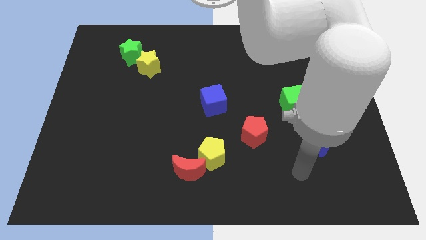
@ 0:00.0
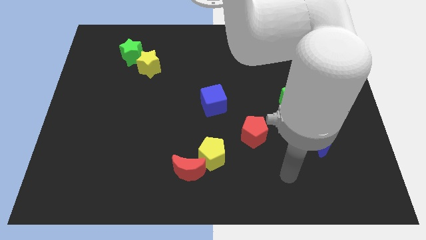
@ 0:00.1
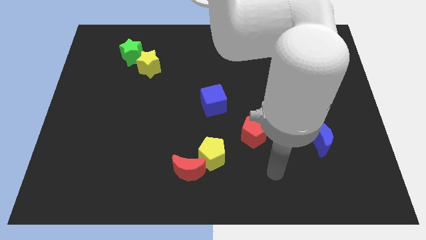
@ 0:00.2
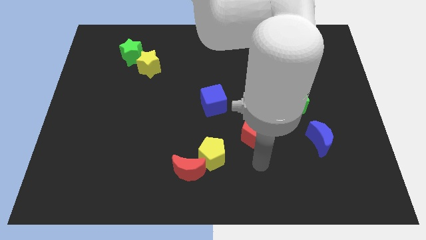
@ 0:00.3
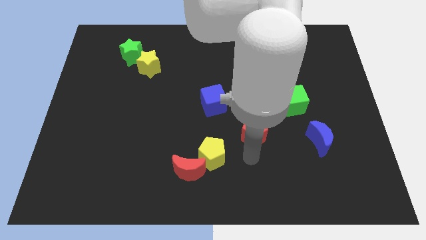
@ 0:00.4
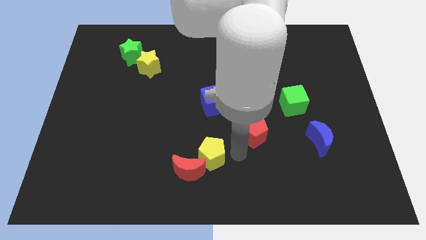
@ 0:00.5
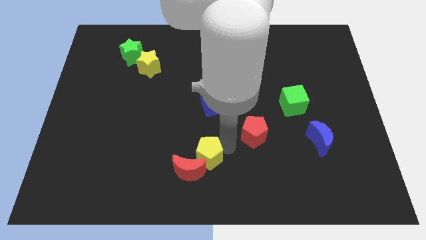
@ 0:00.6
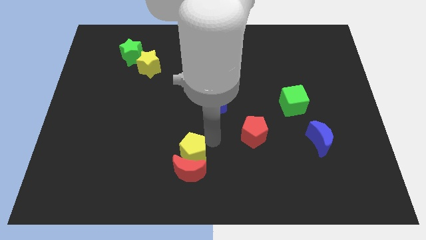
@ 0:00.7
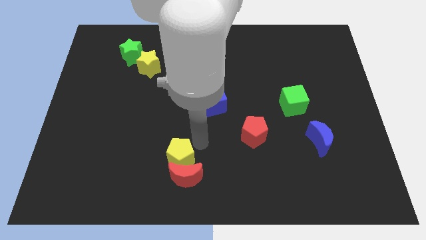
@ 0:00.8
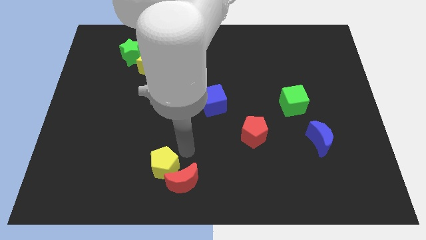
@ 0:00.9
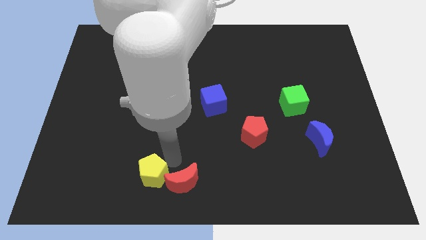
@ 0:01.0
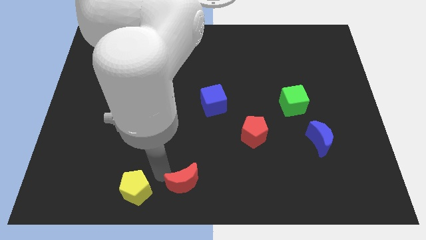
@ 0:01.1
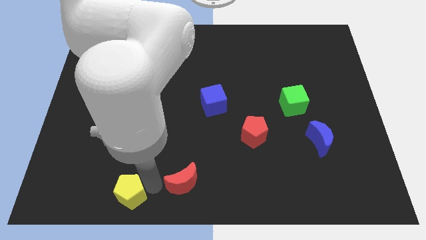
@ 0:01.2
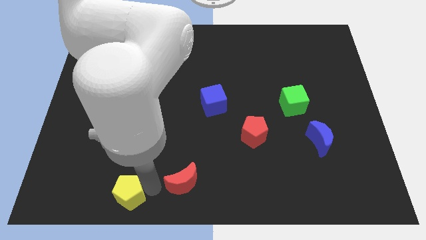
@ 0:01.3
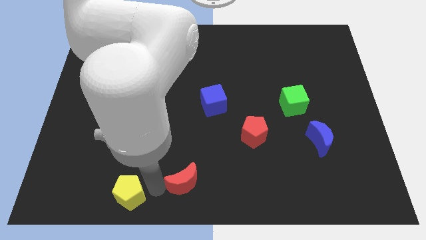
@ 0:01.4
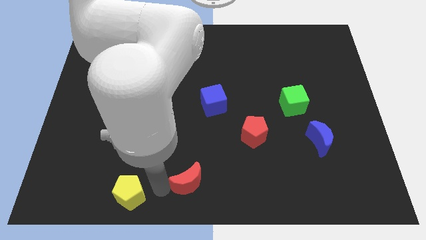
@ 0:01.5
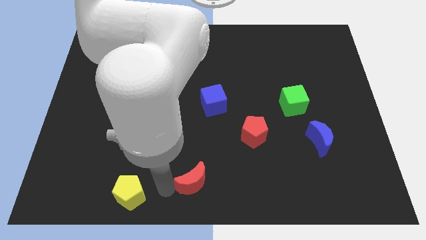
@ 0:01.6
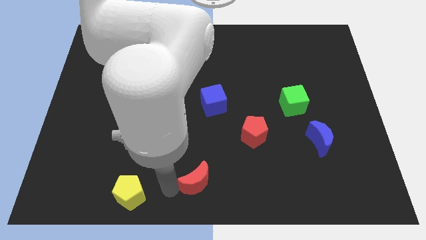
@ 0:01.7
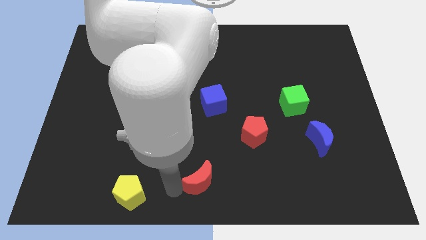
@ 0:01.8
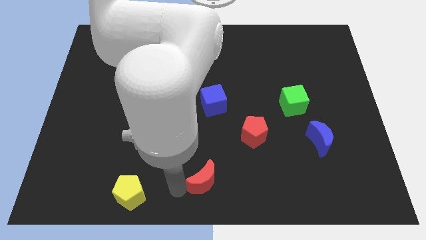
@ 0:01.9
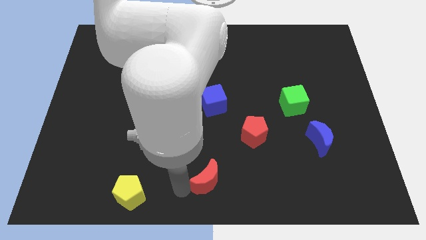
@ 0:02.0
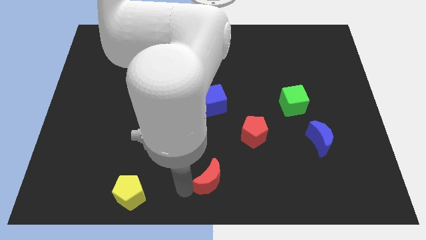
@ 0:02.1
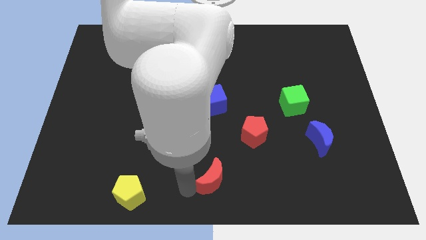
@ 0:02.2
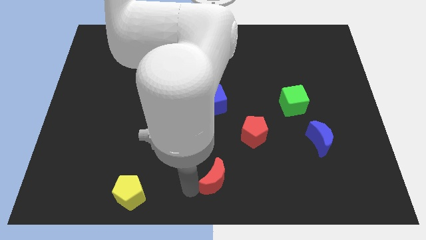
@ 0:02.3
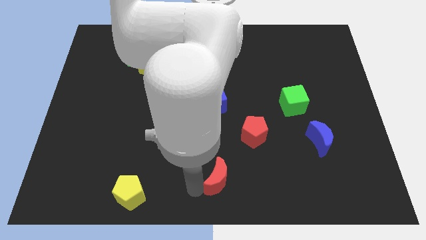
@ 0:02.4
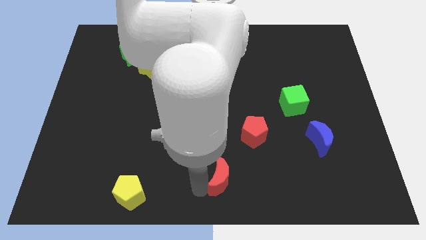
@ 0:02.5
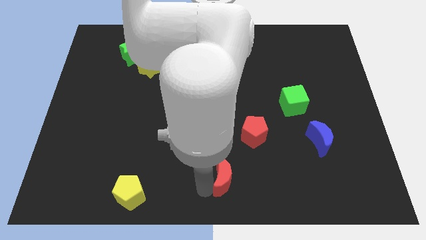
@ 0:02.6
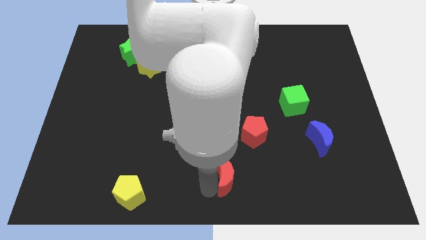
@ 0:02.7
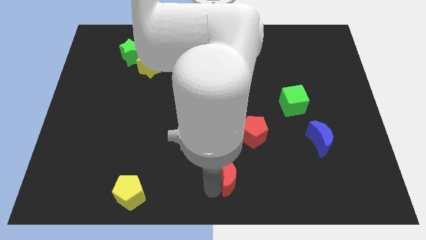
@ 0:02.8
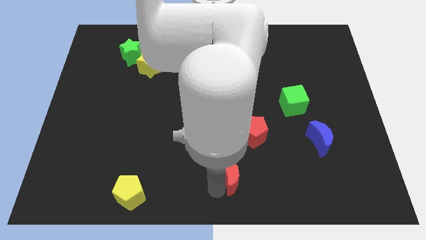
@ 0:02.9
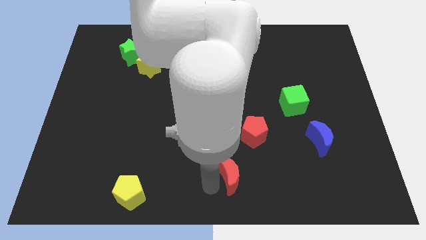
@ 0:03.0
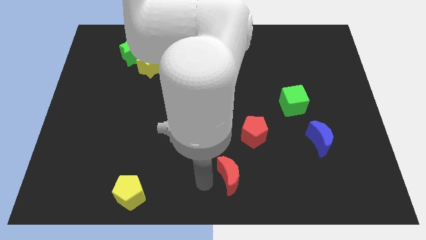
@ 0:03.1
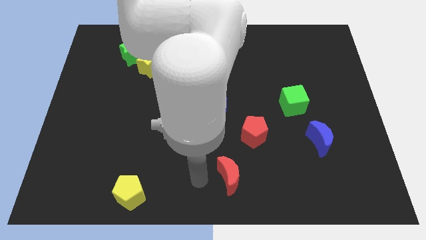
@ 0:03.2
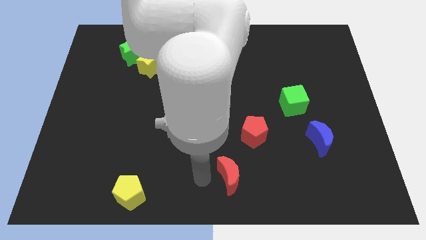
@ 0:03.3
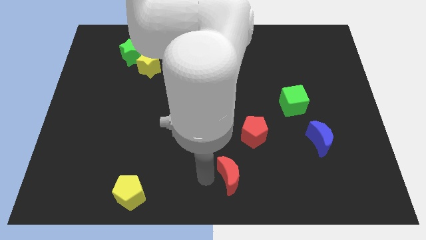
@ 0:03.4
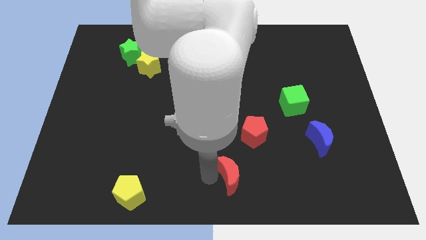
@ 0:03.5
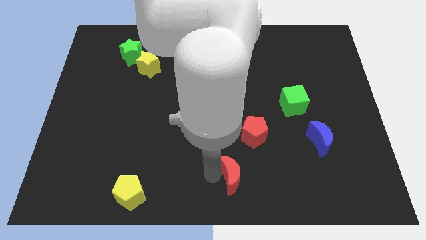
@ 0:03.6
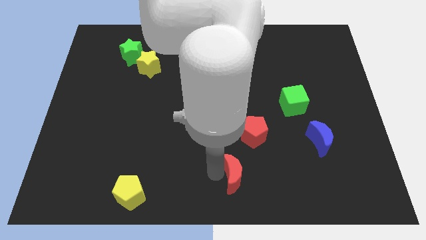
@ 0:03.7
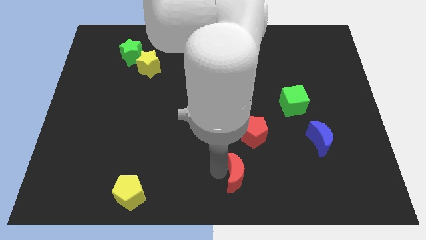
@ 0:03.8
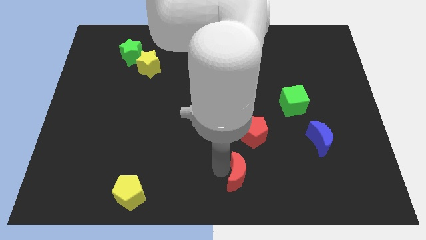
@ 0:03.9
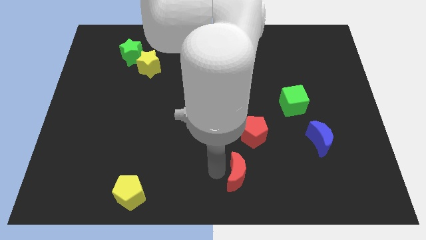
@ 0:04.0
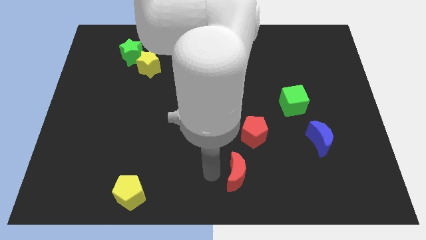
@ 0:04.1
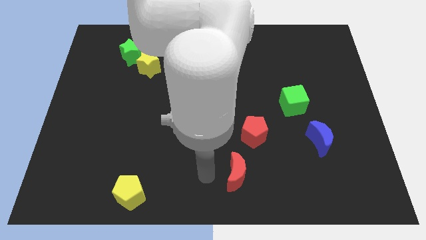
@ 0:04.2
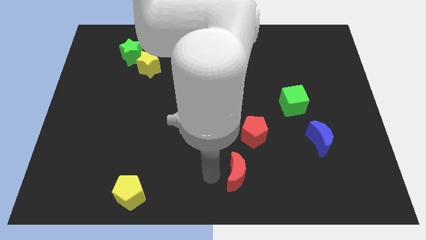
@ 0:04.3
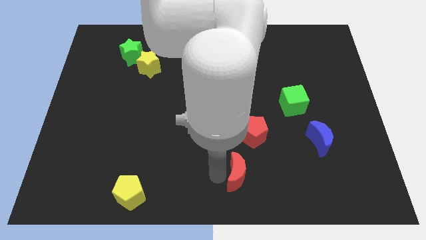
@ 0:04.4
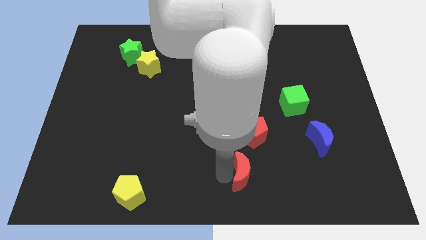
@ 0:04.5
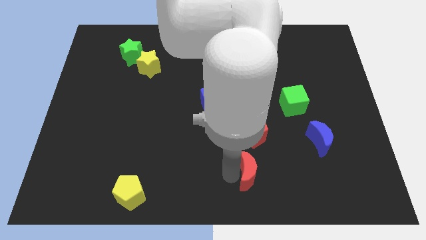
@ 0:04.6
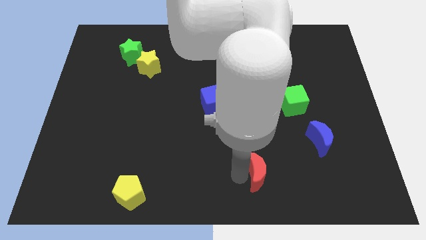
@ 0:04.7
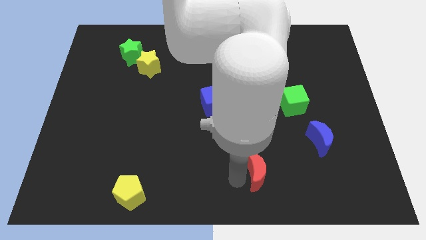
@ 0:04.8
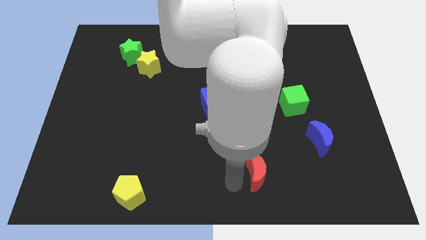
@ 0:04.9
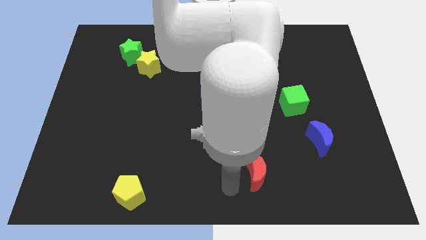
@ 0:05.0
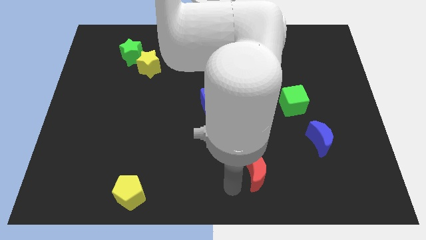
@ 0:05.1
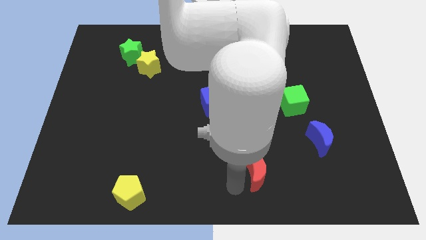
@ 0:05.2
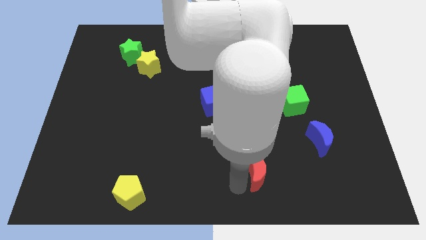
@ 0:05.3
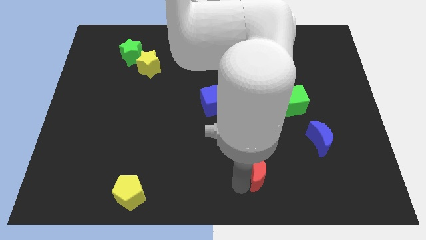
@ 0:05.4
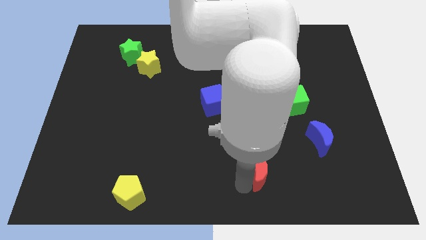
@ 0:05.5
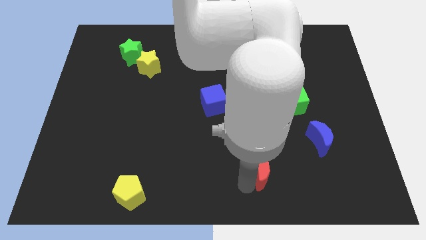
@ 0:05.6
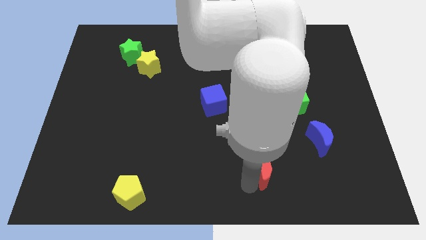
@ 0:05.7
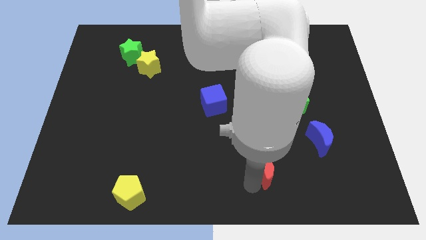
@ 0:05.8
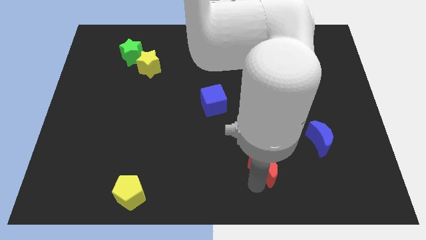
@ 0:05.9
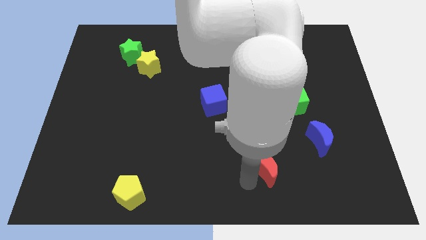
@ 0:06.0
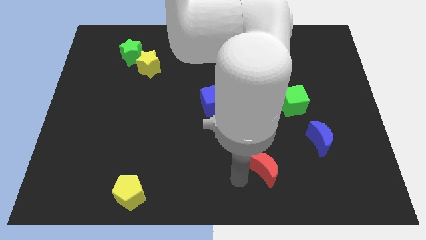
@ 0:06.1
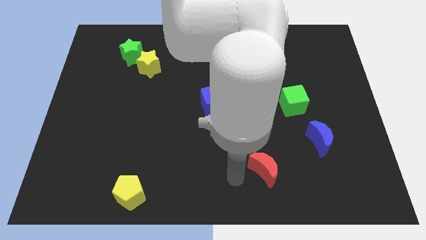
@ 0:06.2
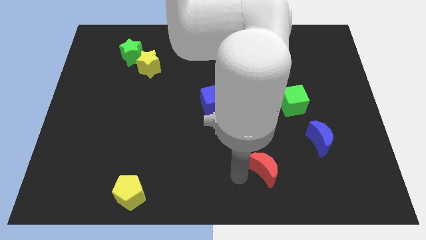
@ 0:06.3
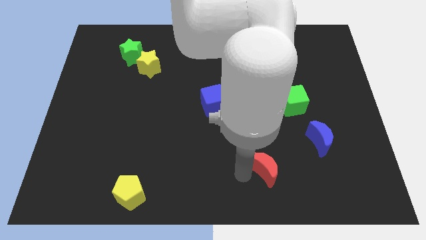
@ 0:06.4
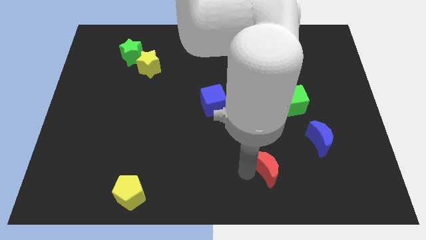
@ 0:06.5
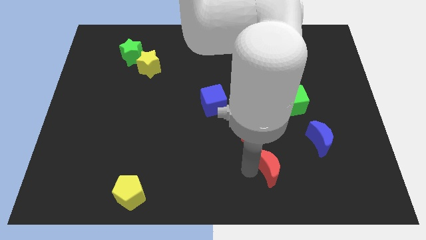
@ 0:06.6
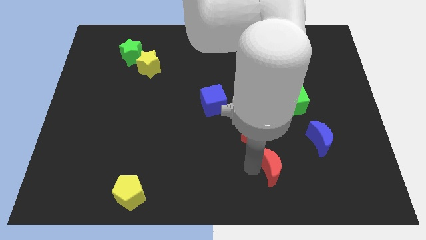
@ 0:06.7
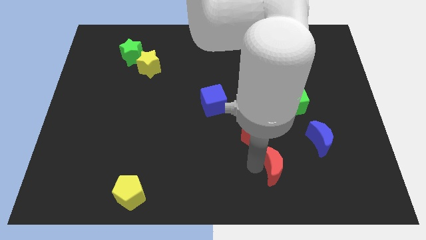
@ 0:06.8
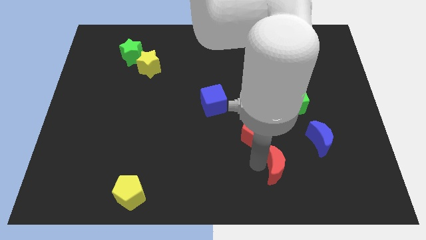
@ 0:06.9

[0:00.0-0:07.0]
move the red moon to the bottom left side of the blue moon

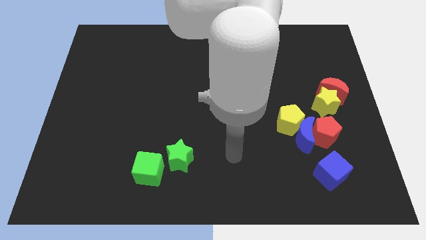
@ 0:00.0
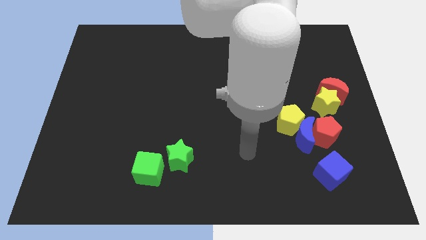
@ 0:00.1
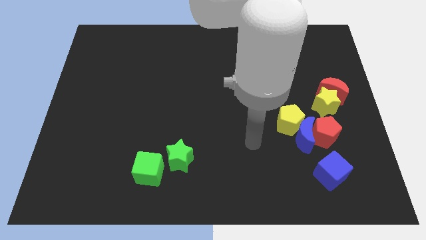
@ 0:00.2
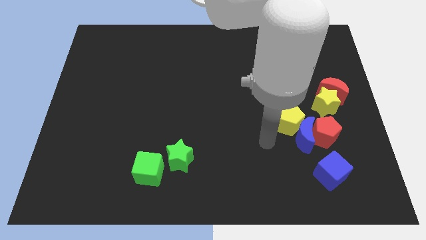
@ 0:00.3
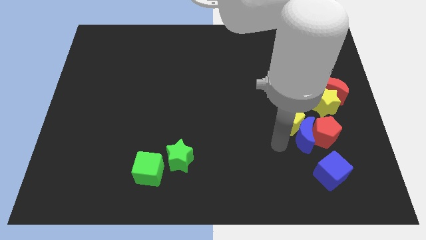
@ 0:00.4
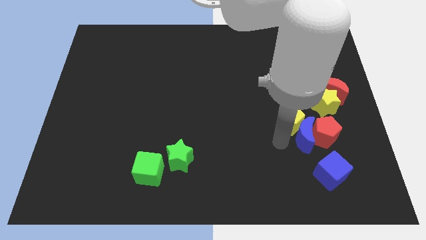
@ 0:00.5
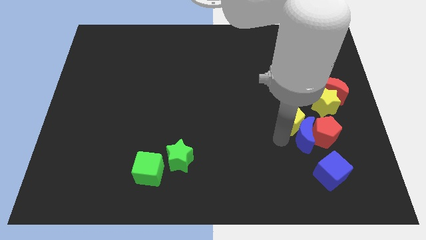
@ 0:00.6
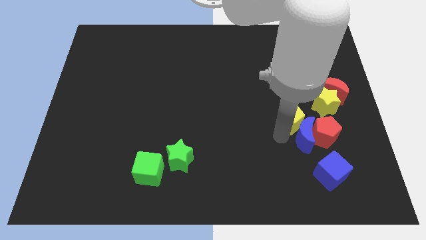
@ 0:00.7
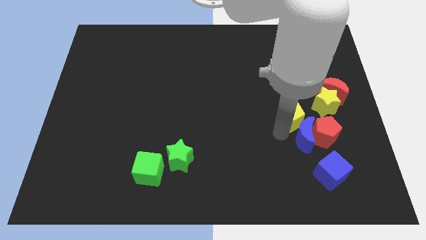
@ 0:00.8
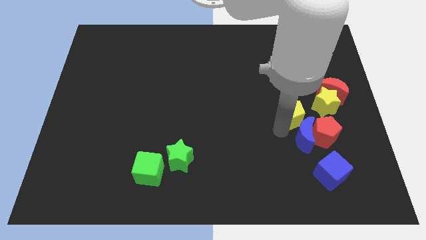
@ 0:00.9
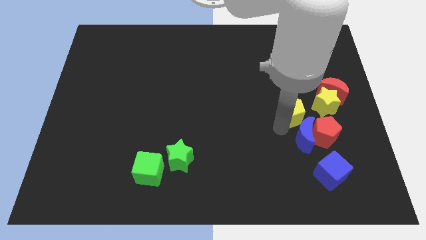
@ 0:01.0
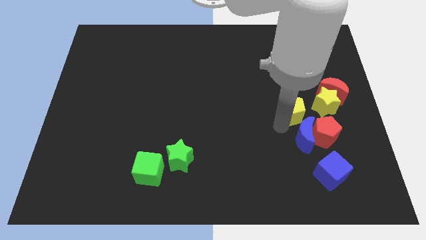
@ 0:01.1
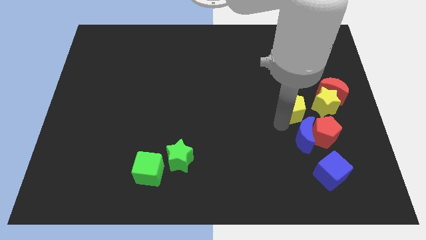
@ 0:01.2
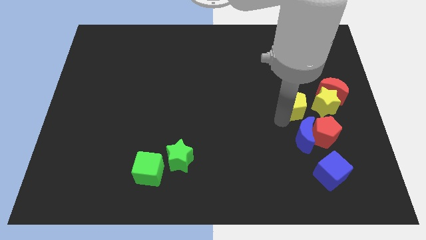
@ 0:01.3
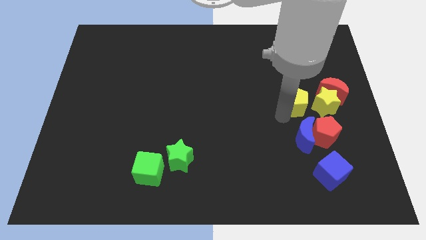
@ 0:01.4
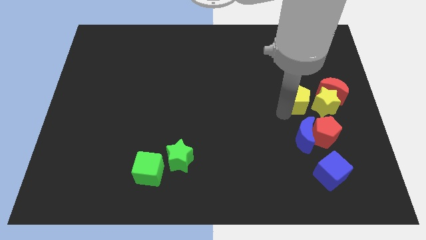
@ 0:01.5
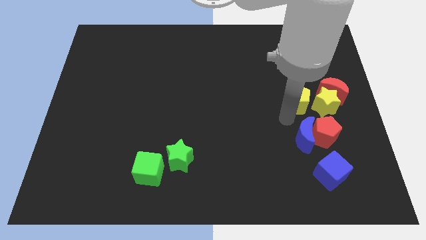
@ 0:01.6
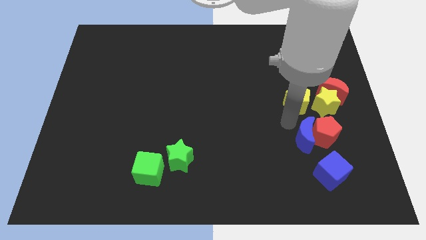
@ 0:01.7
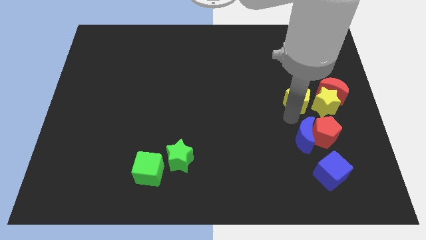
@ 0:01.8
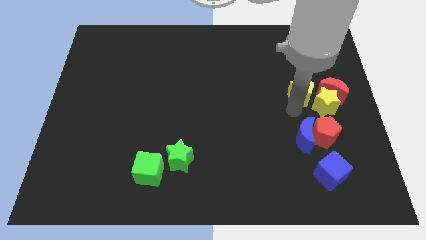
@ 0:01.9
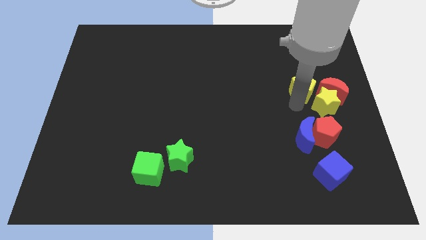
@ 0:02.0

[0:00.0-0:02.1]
push the yellow pentagon diagonally up and to the left of the red moon
